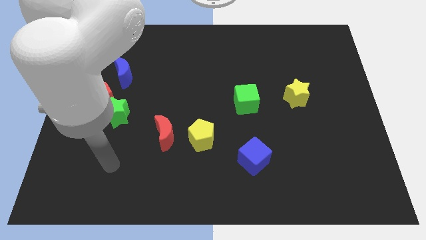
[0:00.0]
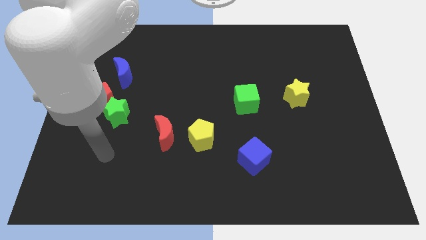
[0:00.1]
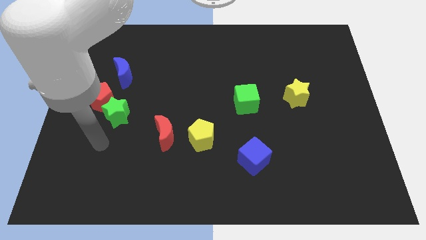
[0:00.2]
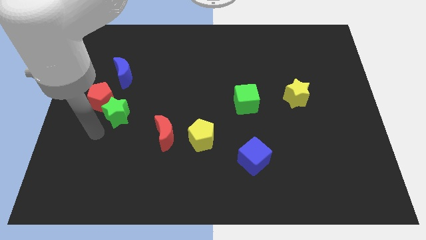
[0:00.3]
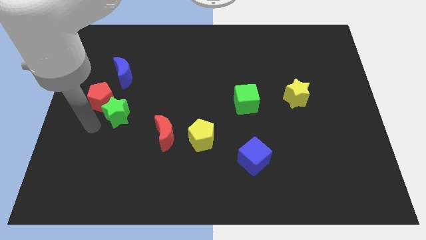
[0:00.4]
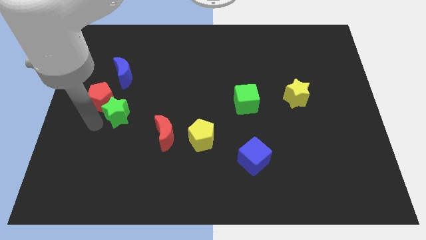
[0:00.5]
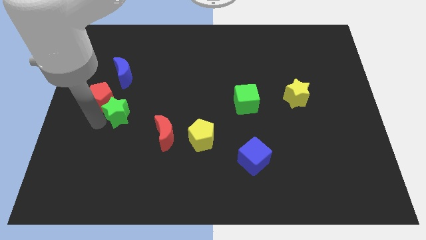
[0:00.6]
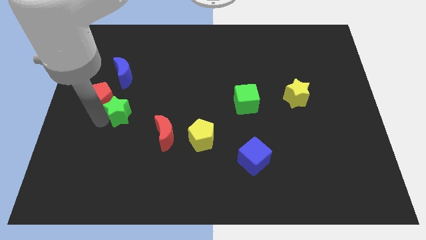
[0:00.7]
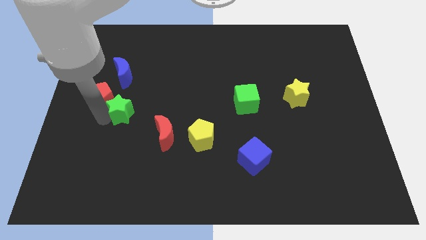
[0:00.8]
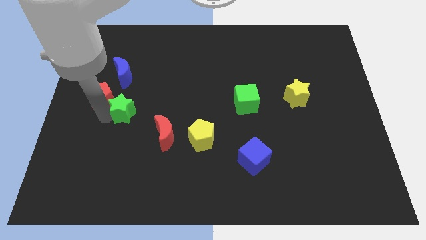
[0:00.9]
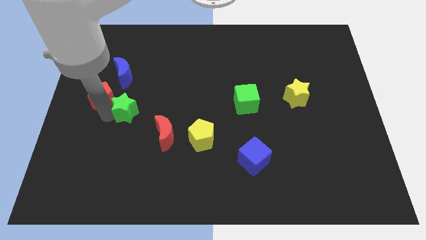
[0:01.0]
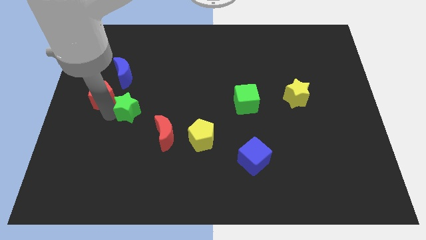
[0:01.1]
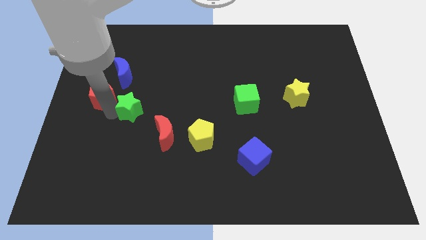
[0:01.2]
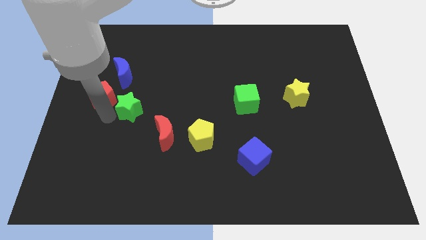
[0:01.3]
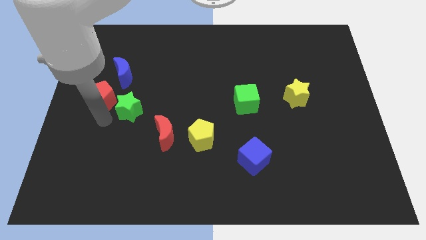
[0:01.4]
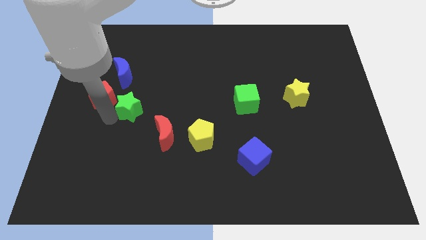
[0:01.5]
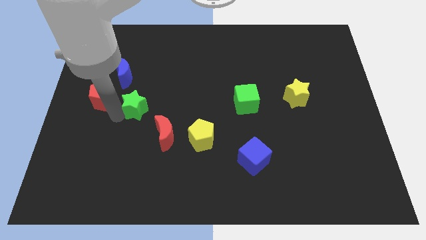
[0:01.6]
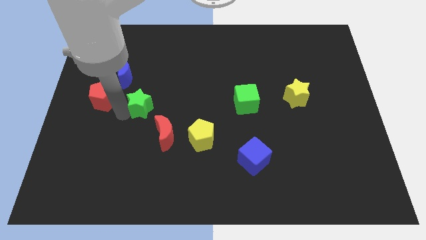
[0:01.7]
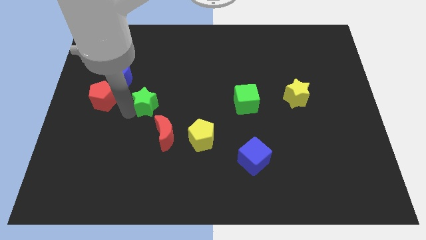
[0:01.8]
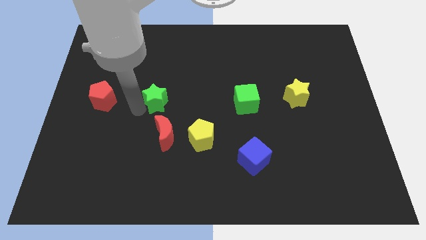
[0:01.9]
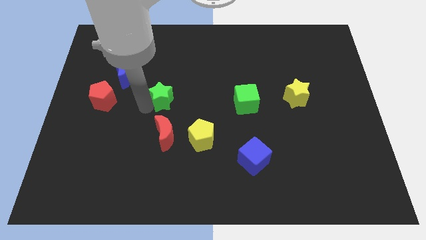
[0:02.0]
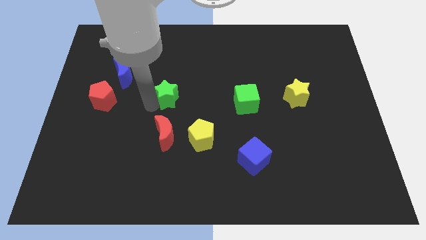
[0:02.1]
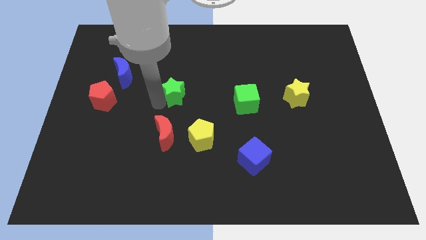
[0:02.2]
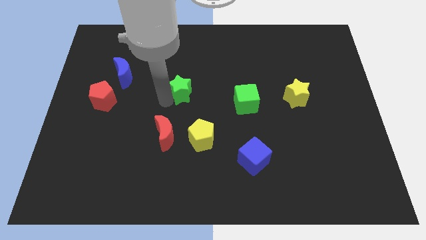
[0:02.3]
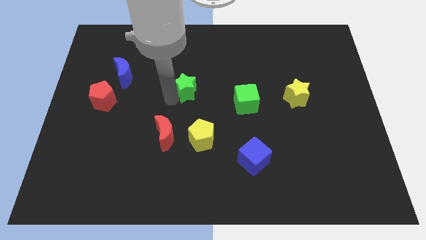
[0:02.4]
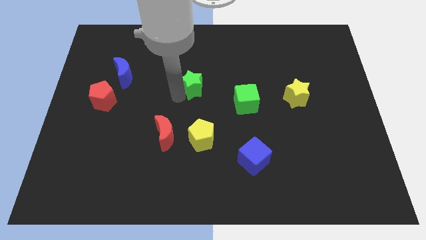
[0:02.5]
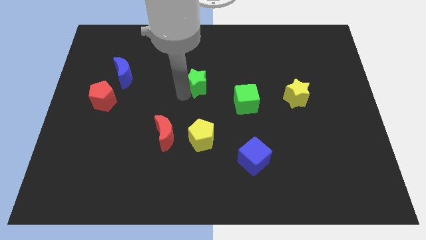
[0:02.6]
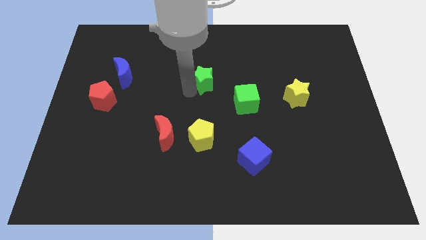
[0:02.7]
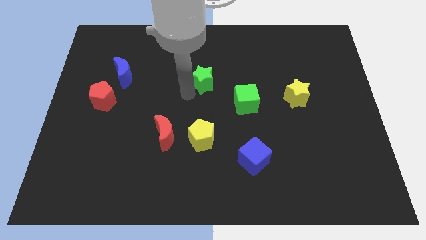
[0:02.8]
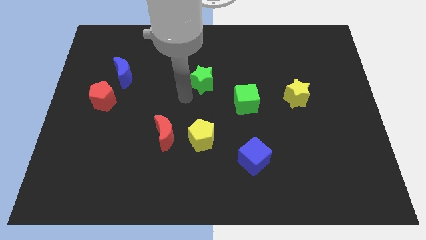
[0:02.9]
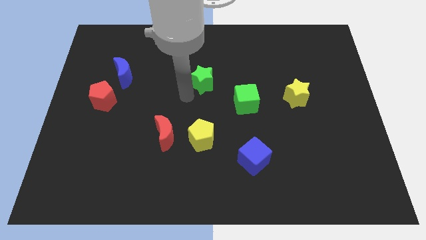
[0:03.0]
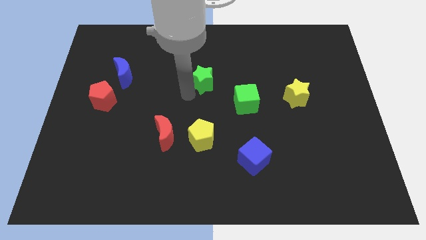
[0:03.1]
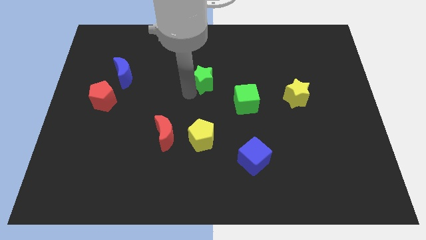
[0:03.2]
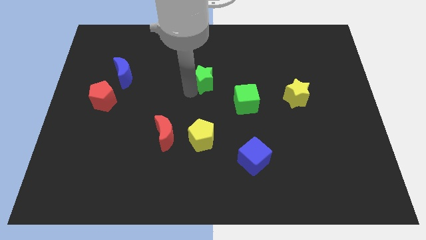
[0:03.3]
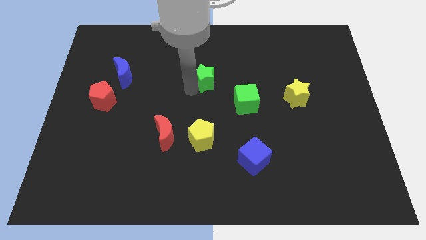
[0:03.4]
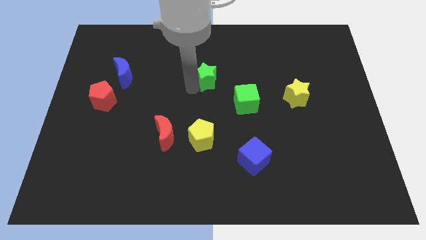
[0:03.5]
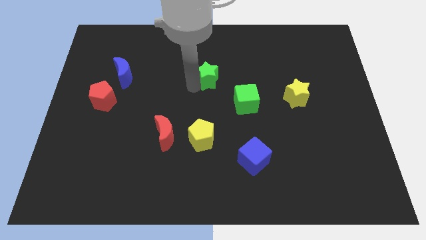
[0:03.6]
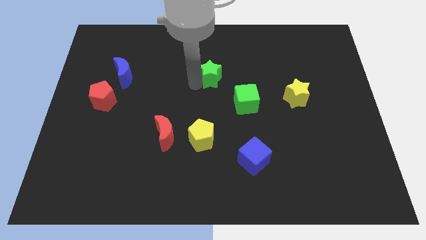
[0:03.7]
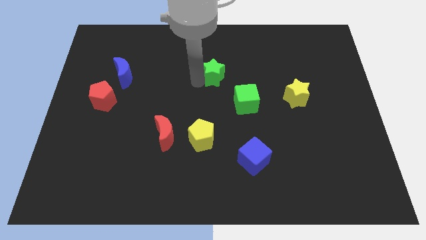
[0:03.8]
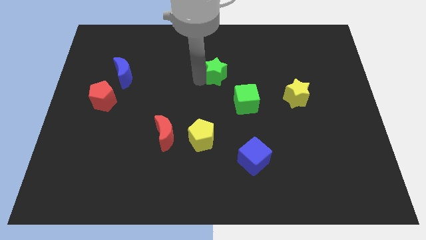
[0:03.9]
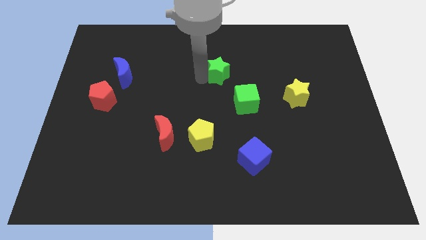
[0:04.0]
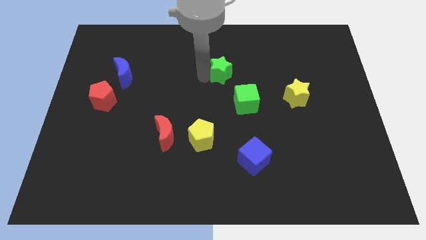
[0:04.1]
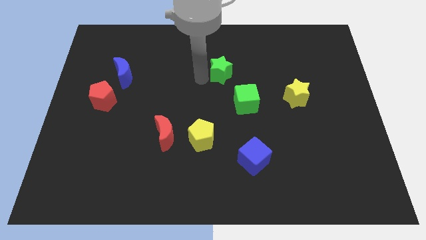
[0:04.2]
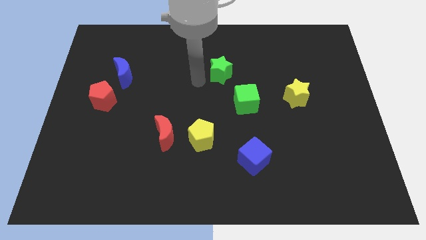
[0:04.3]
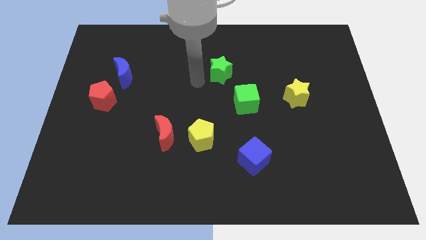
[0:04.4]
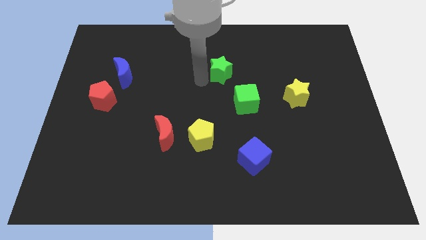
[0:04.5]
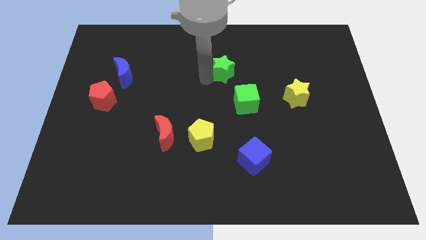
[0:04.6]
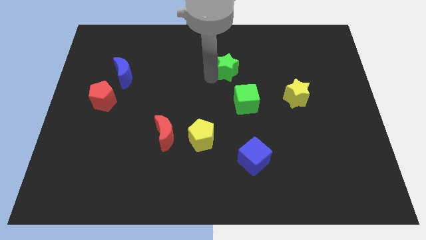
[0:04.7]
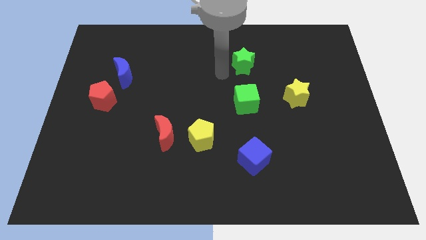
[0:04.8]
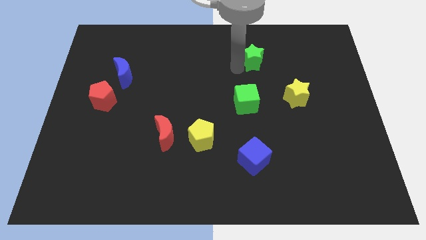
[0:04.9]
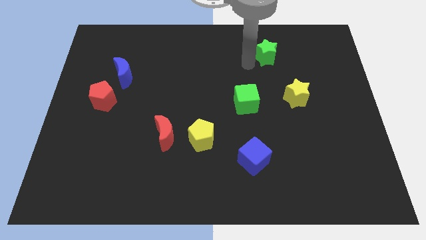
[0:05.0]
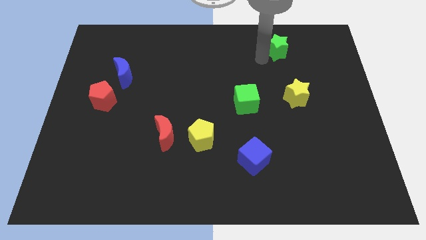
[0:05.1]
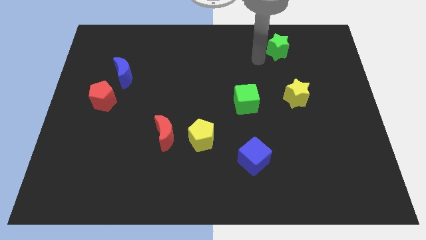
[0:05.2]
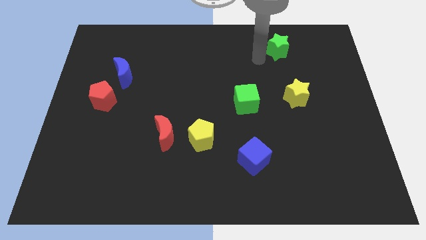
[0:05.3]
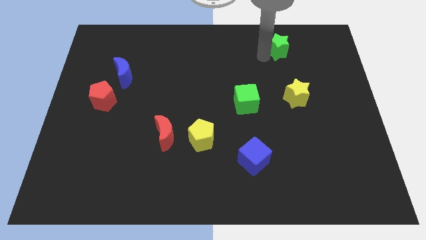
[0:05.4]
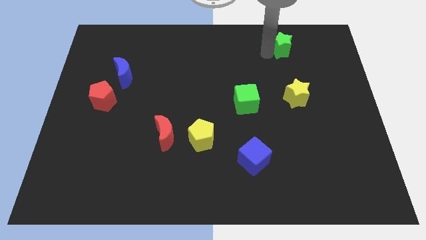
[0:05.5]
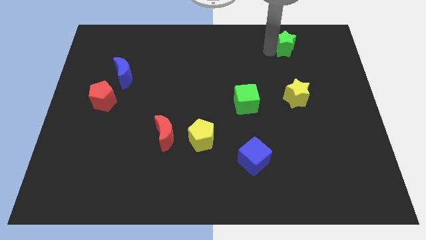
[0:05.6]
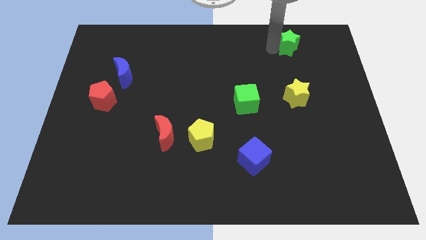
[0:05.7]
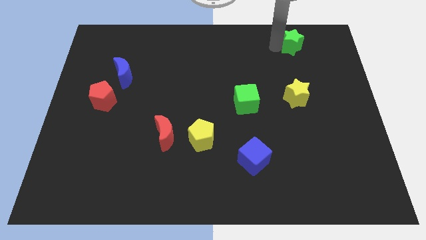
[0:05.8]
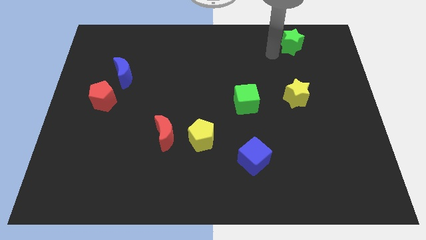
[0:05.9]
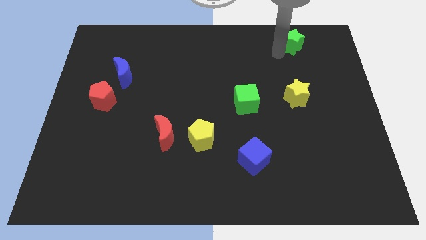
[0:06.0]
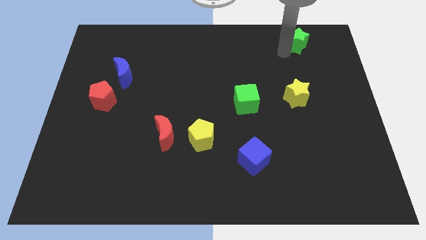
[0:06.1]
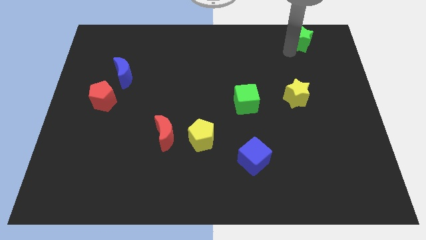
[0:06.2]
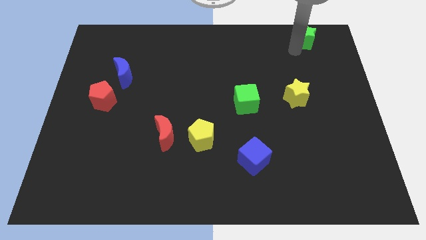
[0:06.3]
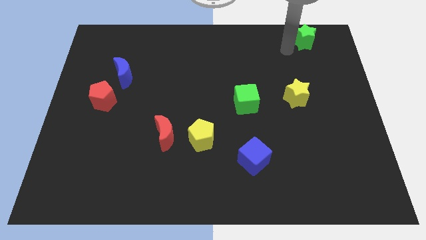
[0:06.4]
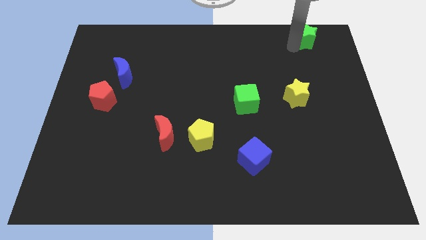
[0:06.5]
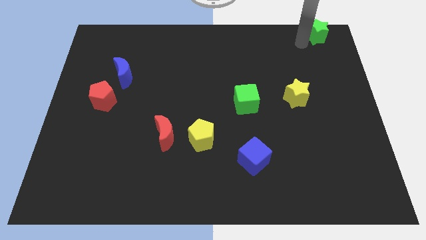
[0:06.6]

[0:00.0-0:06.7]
move the green star to the top right corner
